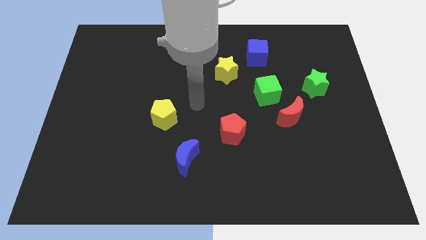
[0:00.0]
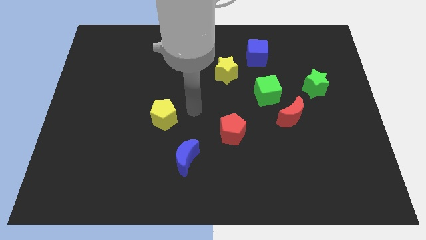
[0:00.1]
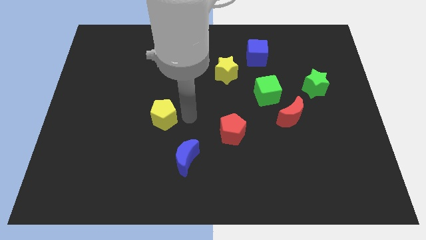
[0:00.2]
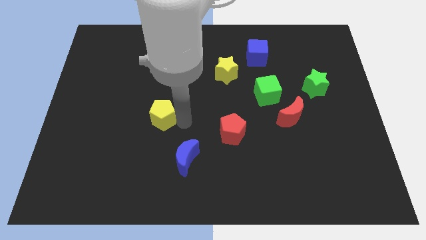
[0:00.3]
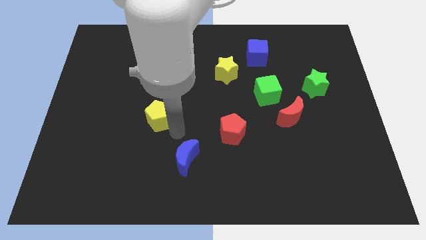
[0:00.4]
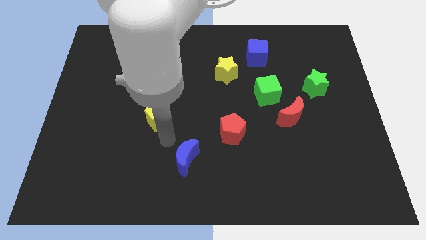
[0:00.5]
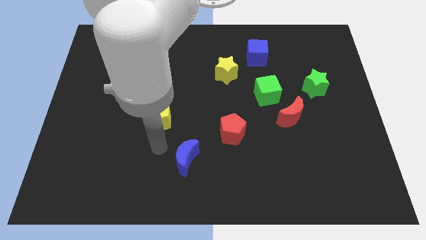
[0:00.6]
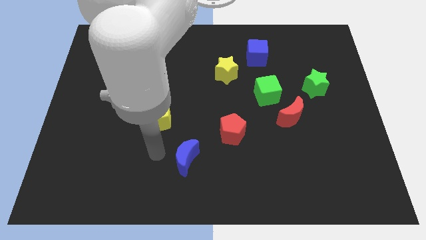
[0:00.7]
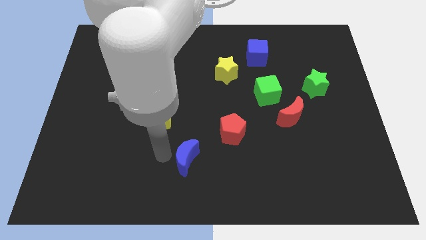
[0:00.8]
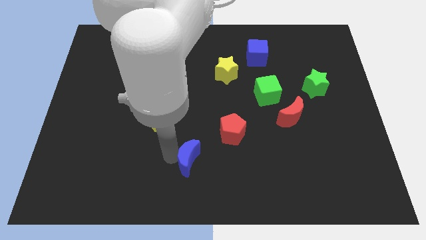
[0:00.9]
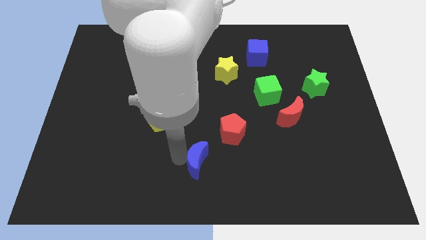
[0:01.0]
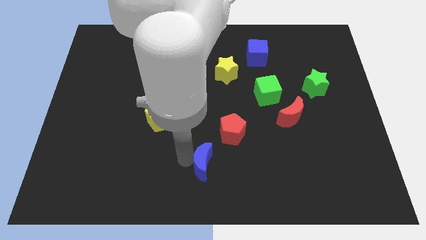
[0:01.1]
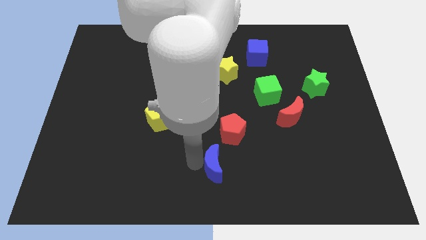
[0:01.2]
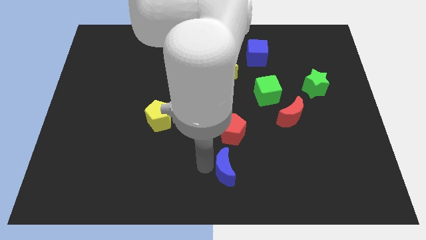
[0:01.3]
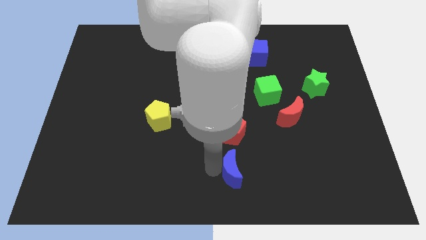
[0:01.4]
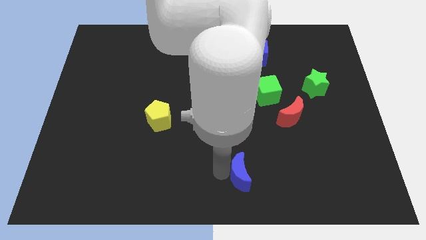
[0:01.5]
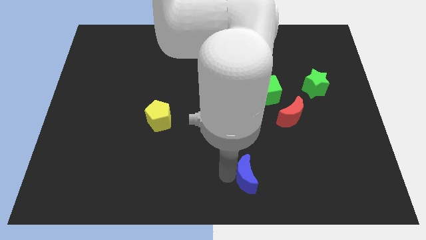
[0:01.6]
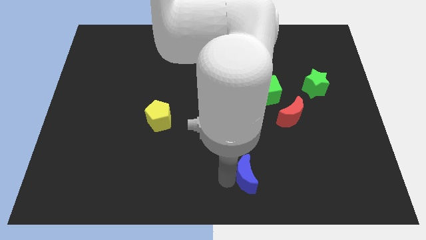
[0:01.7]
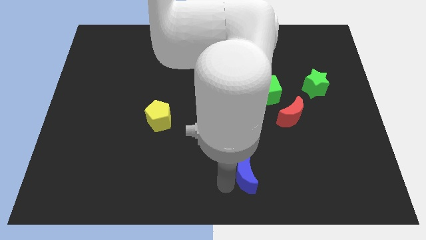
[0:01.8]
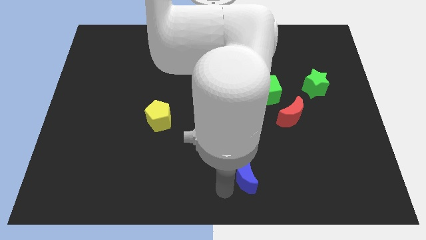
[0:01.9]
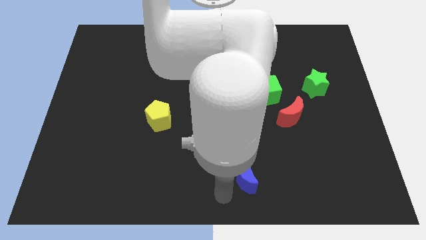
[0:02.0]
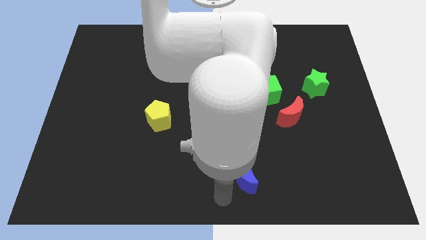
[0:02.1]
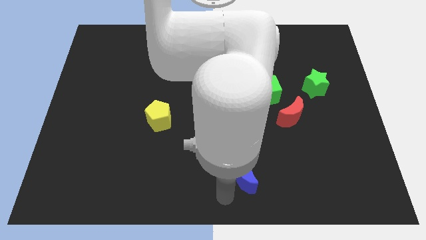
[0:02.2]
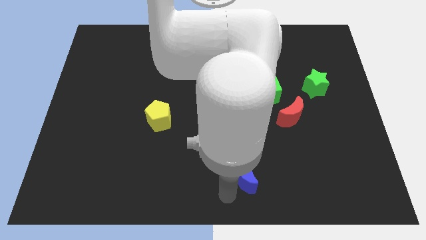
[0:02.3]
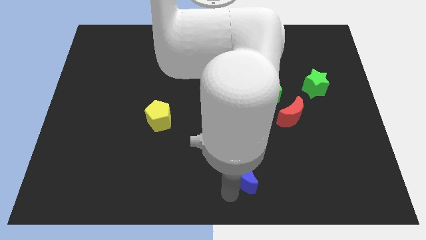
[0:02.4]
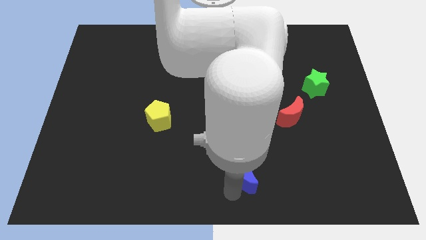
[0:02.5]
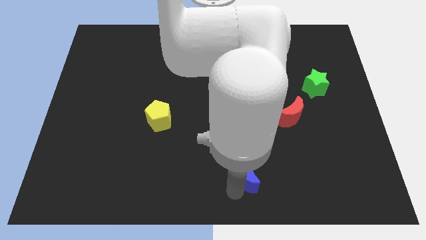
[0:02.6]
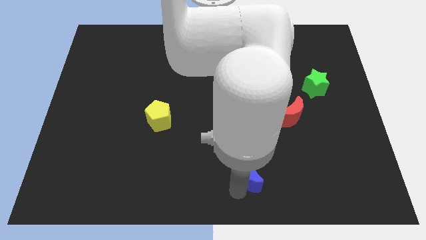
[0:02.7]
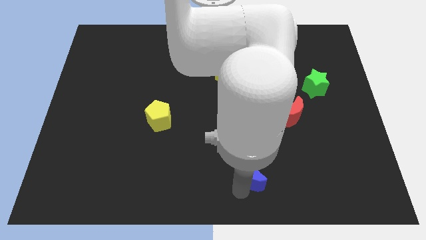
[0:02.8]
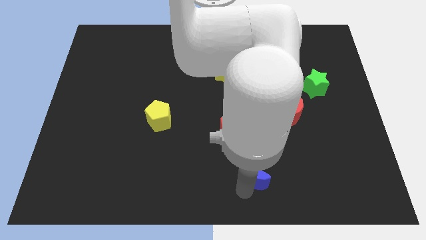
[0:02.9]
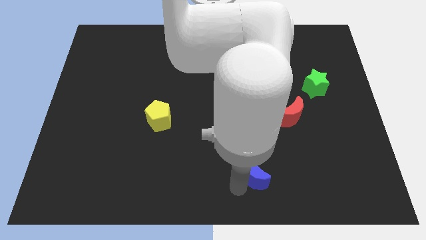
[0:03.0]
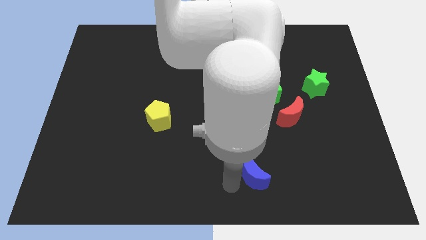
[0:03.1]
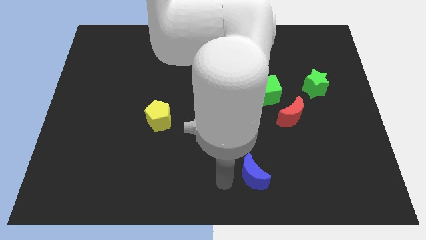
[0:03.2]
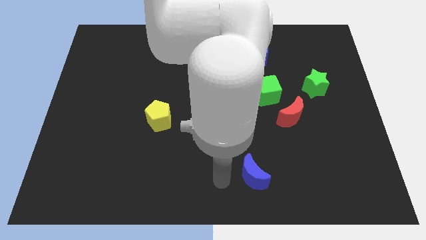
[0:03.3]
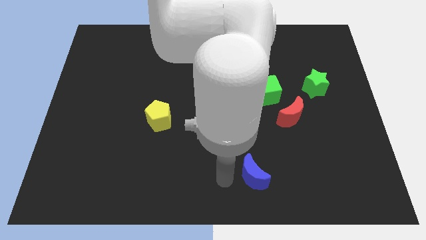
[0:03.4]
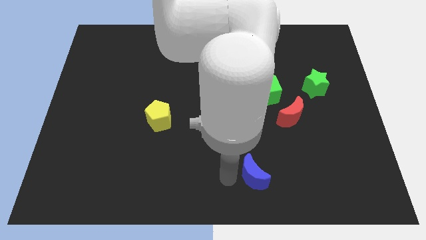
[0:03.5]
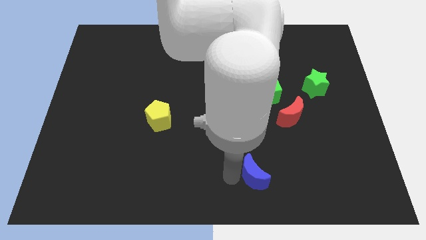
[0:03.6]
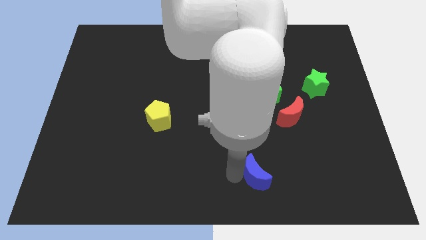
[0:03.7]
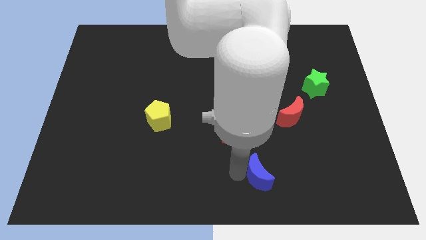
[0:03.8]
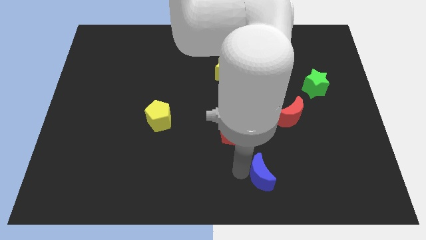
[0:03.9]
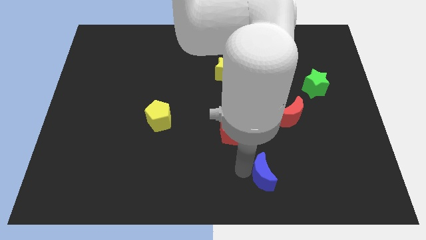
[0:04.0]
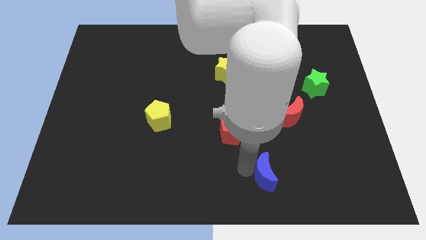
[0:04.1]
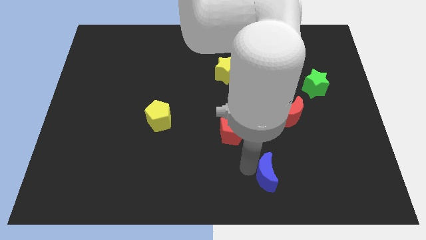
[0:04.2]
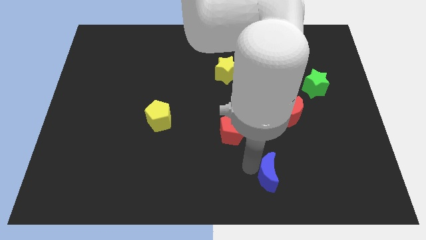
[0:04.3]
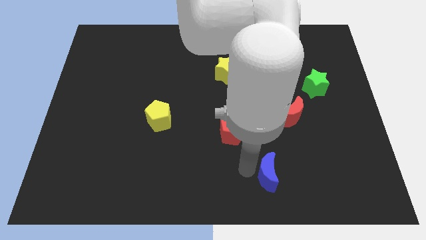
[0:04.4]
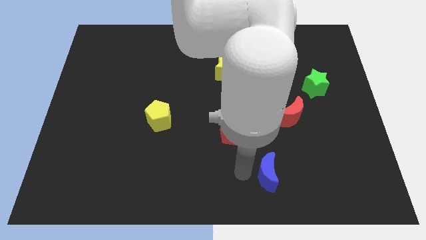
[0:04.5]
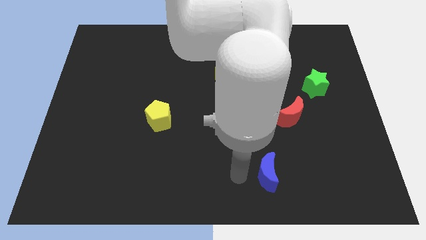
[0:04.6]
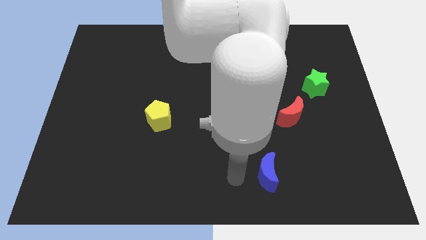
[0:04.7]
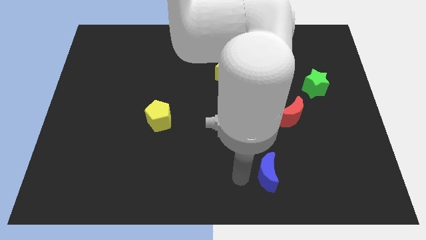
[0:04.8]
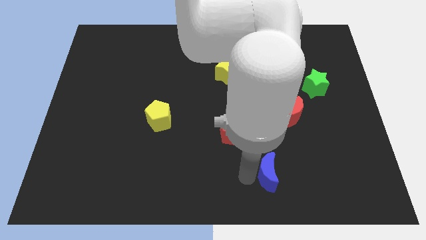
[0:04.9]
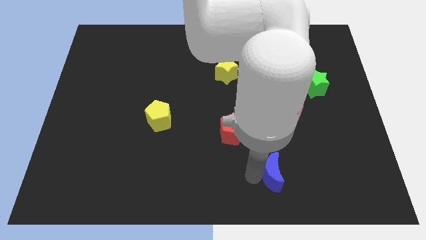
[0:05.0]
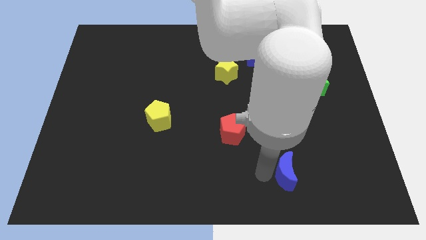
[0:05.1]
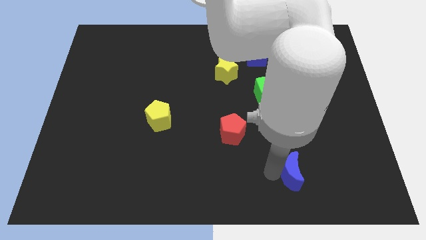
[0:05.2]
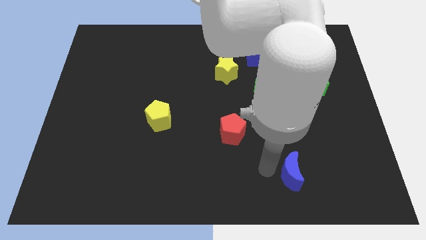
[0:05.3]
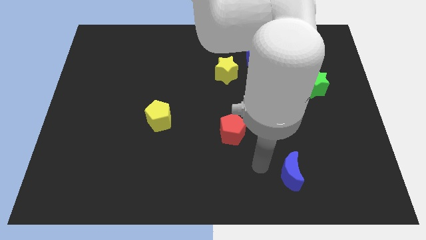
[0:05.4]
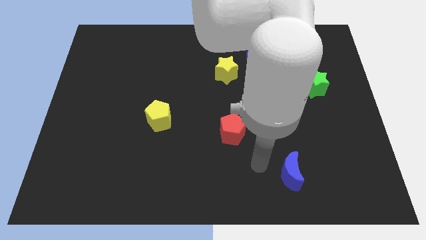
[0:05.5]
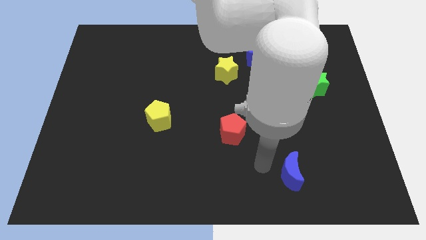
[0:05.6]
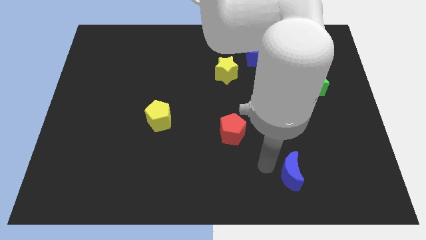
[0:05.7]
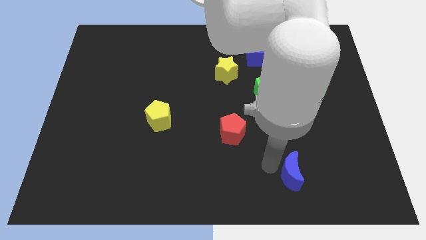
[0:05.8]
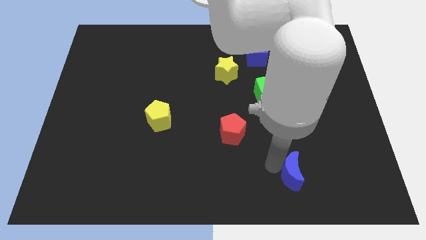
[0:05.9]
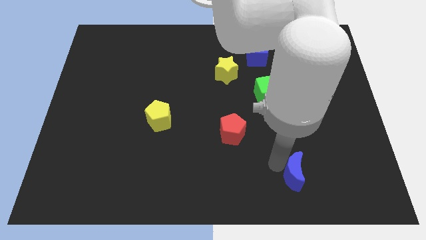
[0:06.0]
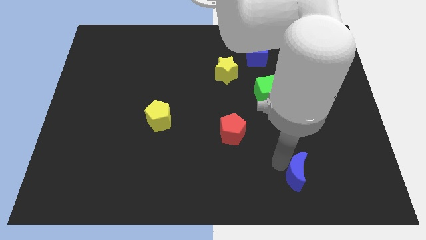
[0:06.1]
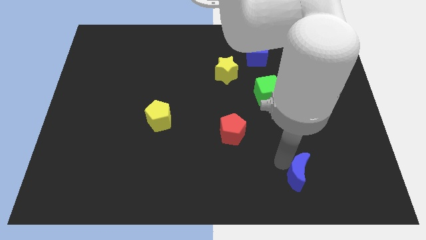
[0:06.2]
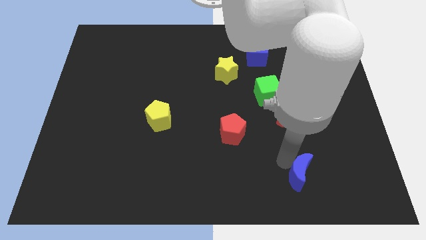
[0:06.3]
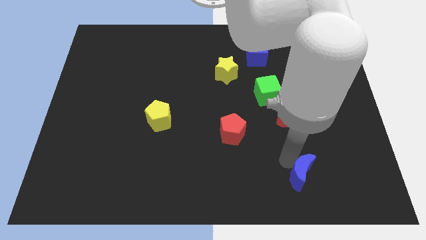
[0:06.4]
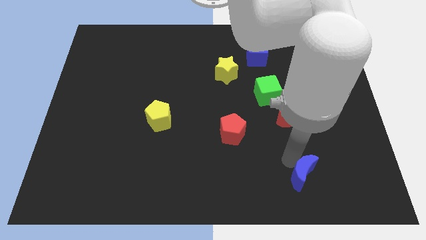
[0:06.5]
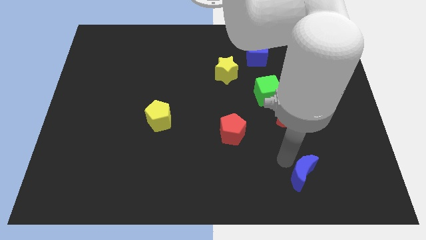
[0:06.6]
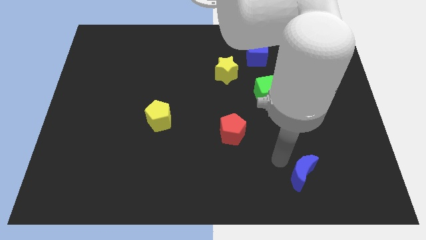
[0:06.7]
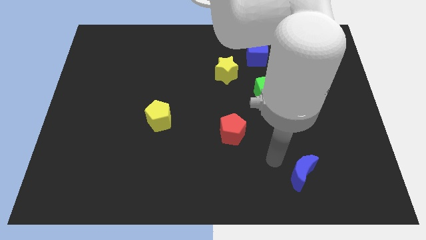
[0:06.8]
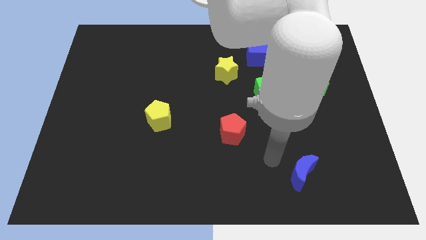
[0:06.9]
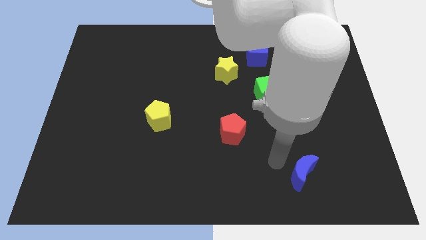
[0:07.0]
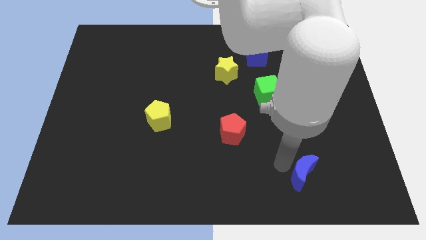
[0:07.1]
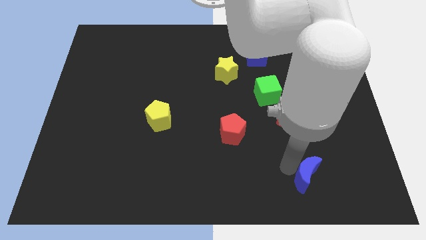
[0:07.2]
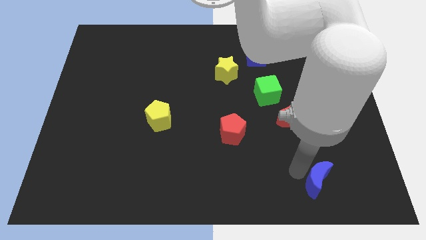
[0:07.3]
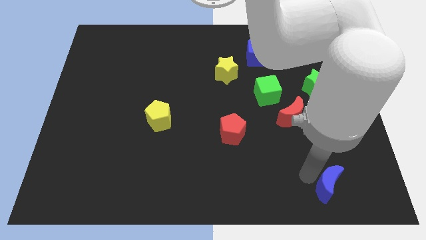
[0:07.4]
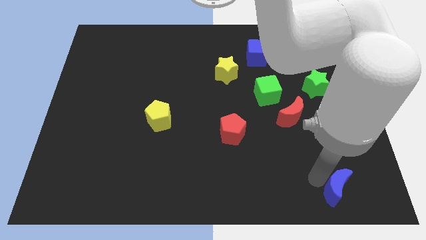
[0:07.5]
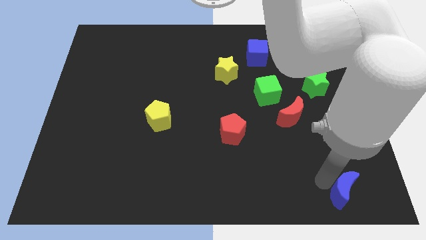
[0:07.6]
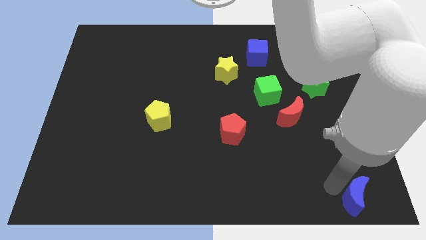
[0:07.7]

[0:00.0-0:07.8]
move the blue moon to the bottom right corner
